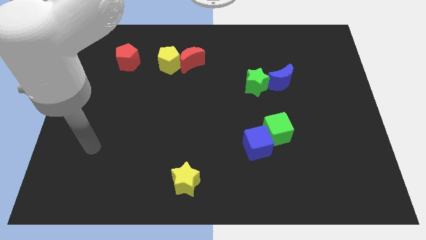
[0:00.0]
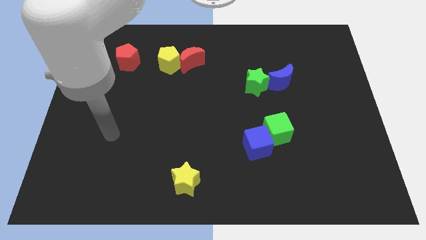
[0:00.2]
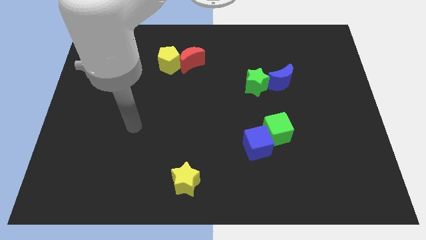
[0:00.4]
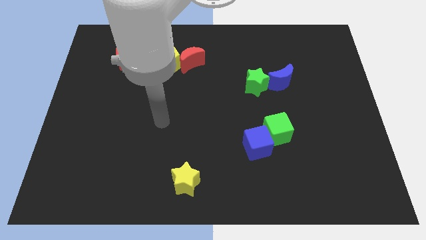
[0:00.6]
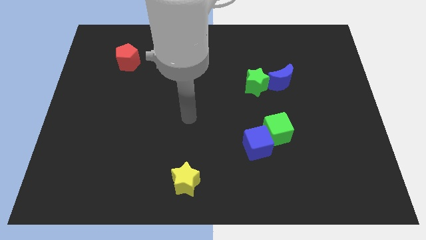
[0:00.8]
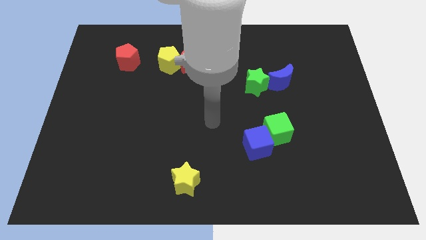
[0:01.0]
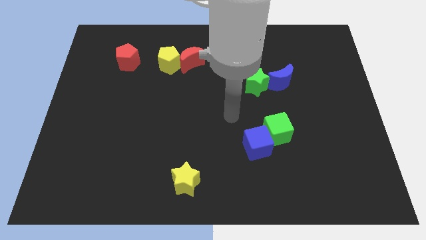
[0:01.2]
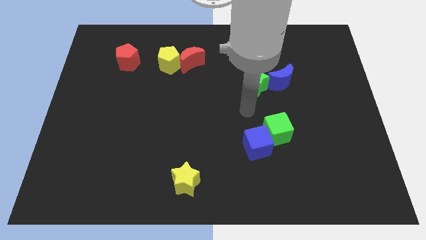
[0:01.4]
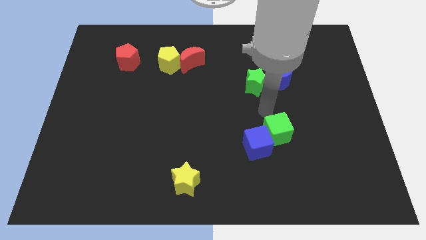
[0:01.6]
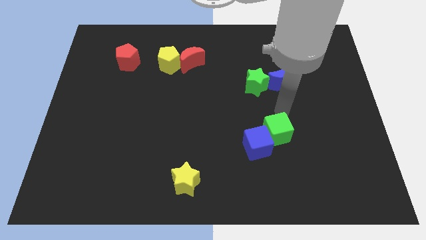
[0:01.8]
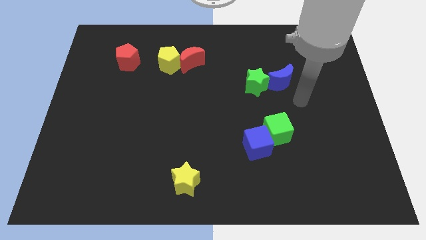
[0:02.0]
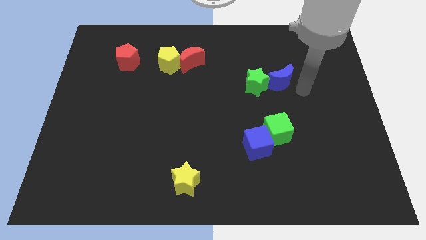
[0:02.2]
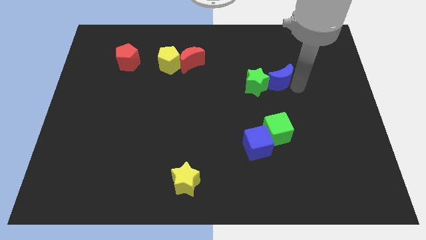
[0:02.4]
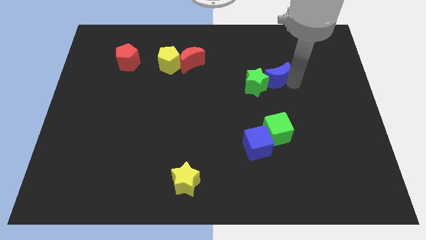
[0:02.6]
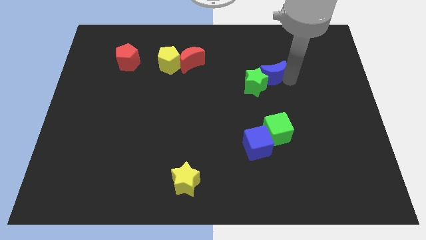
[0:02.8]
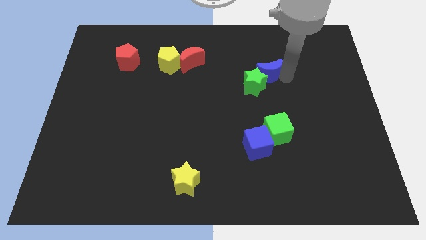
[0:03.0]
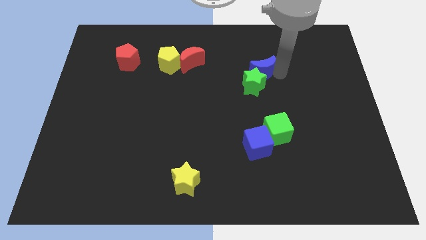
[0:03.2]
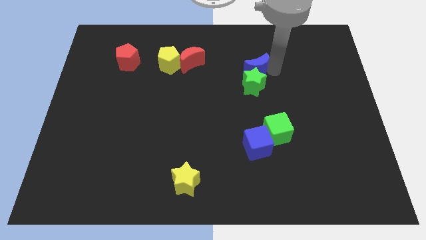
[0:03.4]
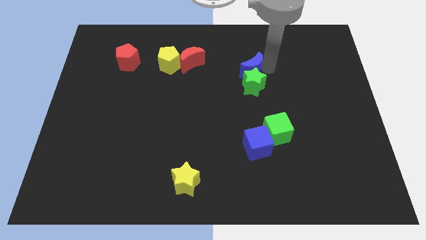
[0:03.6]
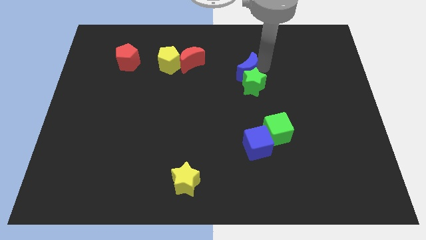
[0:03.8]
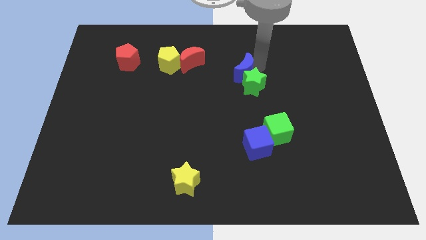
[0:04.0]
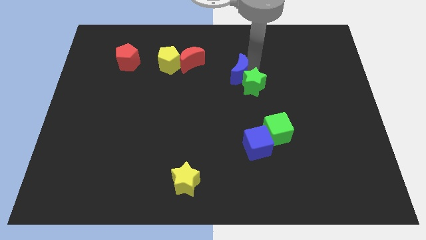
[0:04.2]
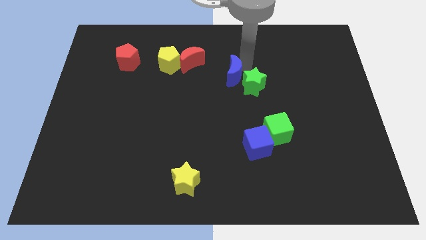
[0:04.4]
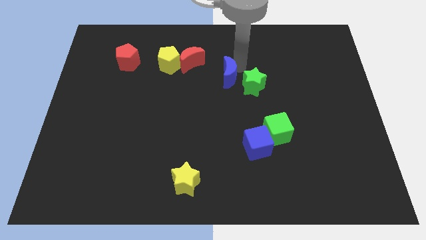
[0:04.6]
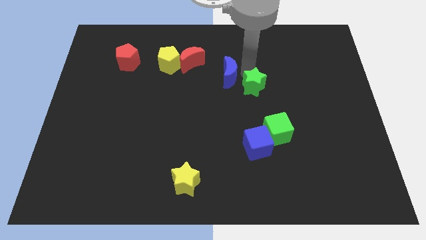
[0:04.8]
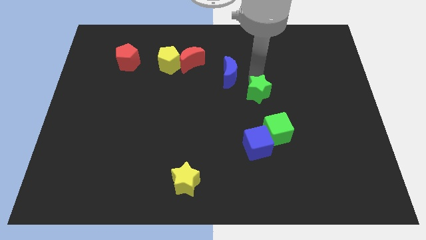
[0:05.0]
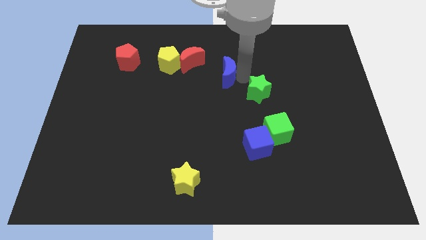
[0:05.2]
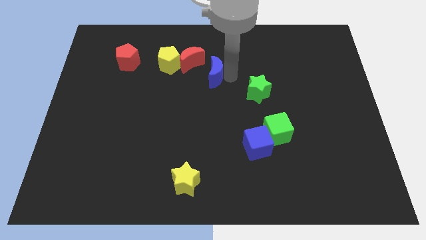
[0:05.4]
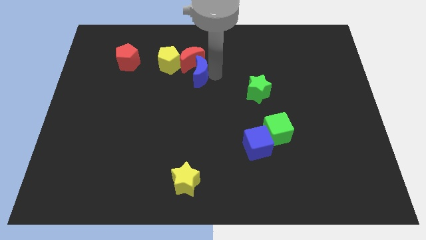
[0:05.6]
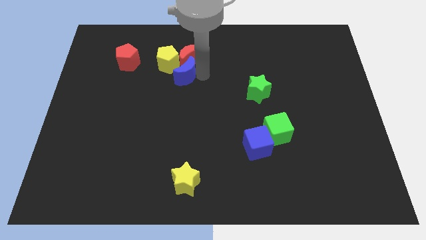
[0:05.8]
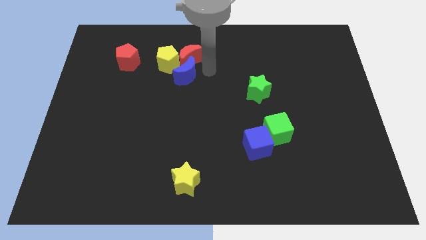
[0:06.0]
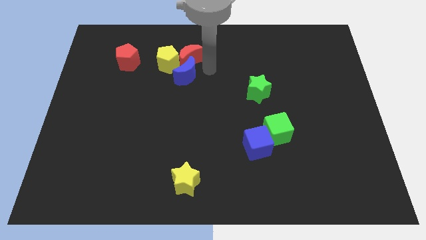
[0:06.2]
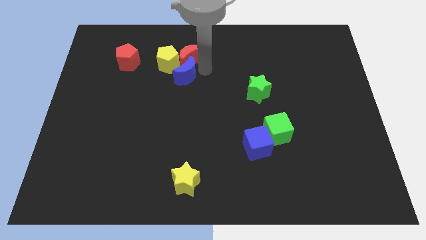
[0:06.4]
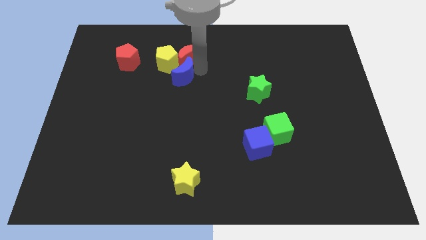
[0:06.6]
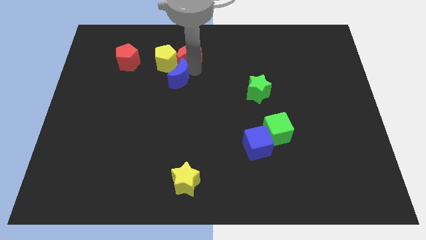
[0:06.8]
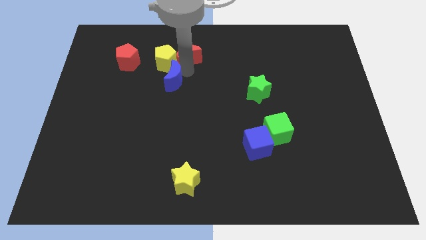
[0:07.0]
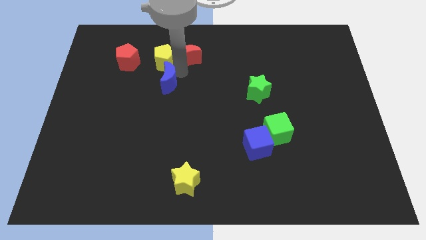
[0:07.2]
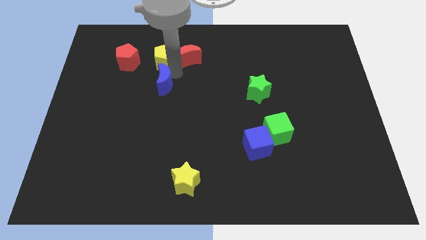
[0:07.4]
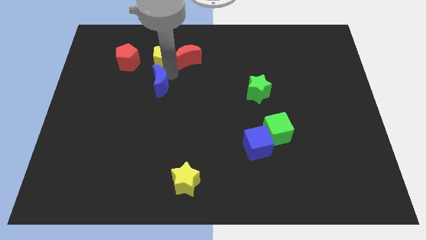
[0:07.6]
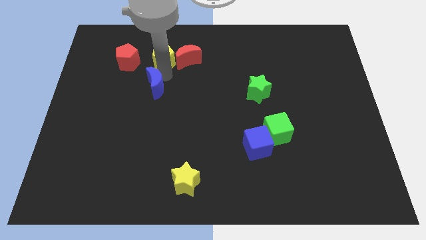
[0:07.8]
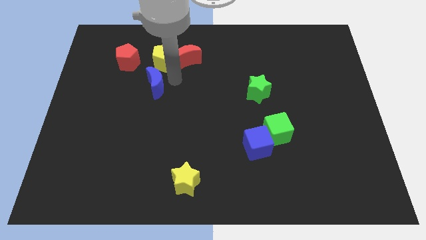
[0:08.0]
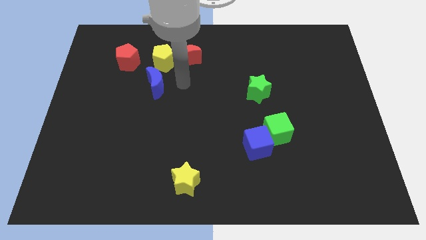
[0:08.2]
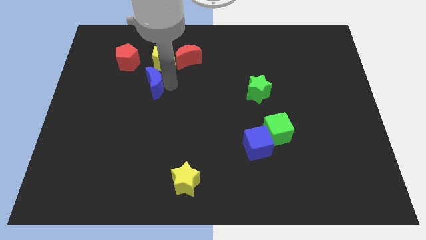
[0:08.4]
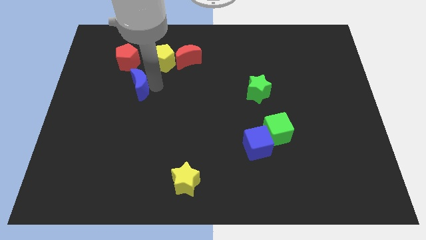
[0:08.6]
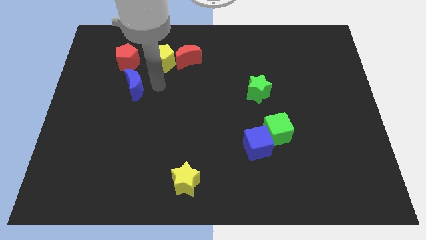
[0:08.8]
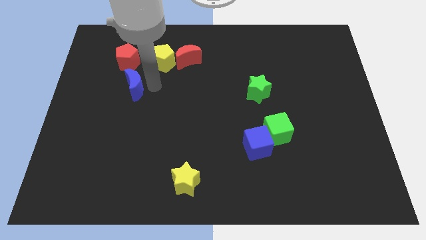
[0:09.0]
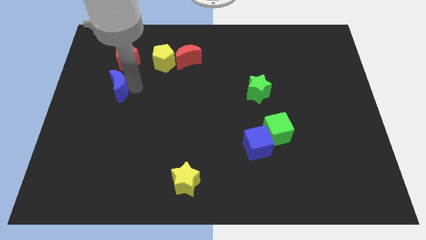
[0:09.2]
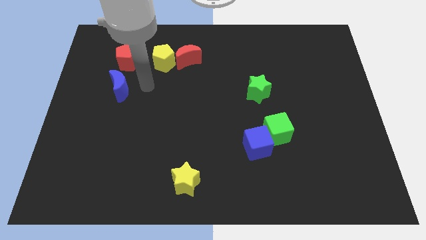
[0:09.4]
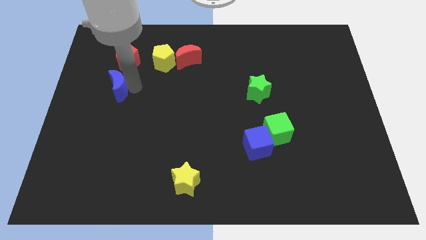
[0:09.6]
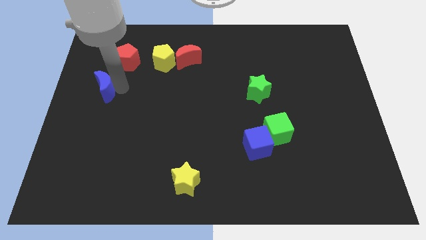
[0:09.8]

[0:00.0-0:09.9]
move the blue moon to the left side

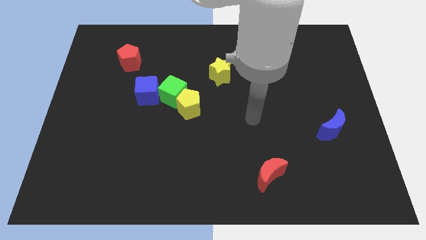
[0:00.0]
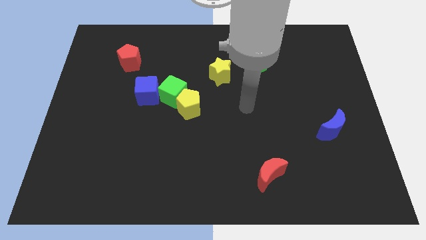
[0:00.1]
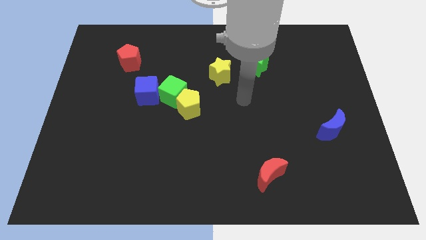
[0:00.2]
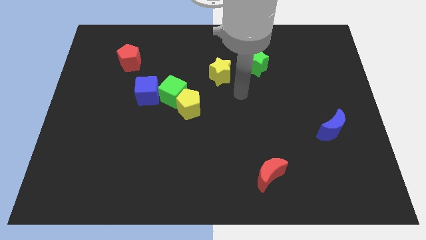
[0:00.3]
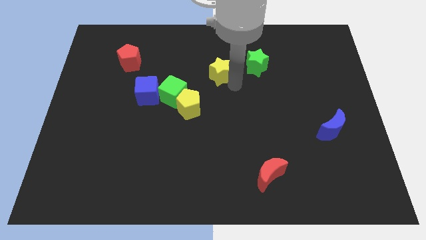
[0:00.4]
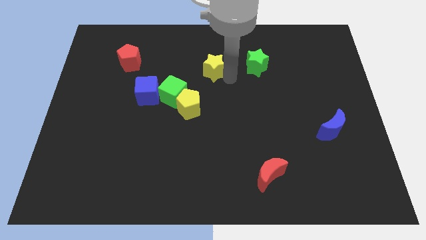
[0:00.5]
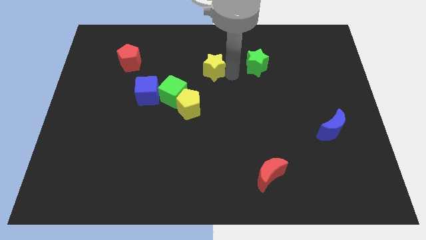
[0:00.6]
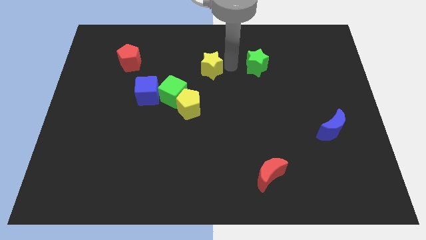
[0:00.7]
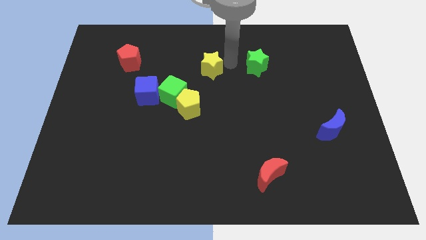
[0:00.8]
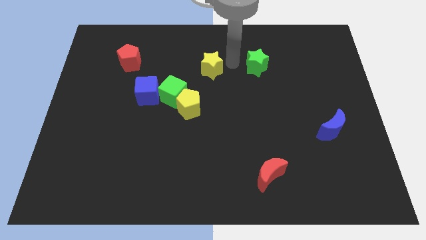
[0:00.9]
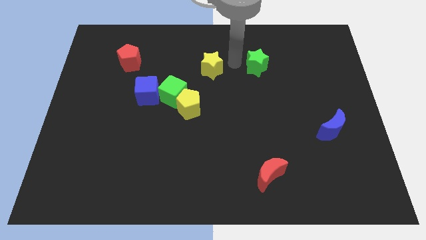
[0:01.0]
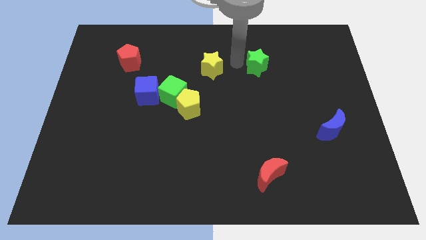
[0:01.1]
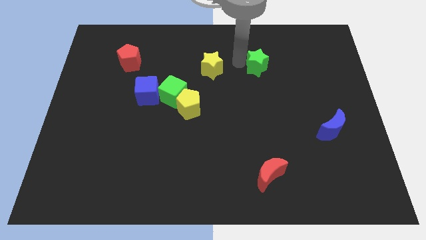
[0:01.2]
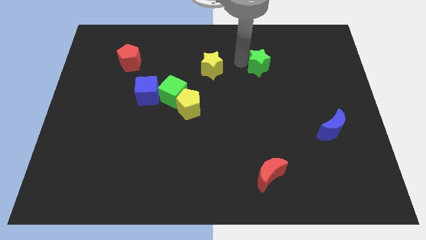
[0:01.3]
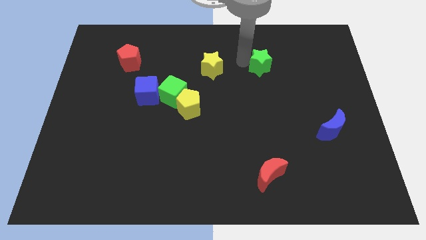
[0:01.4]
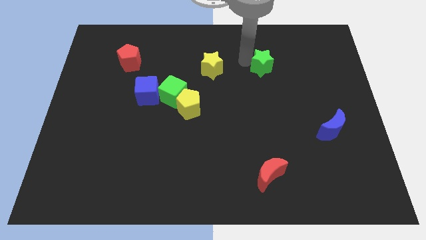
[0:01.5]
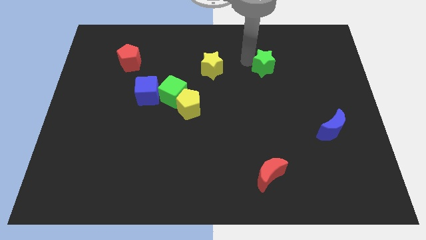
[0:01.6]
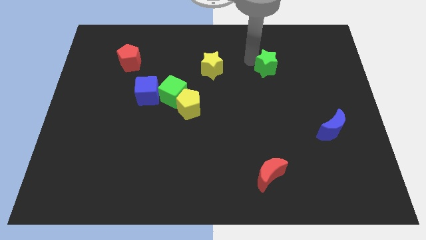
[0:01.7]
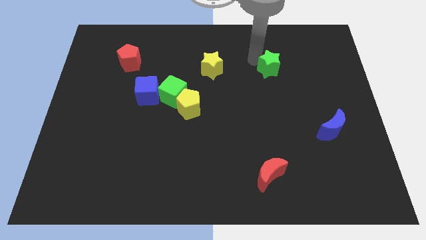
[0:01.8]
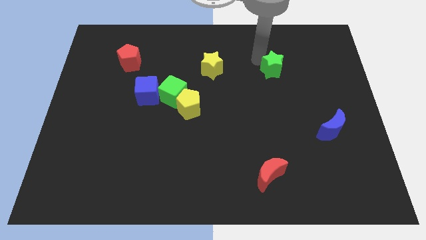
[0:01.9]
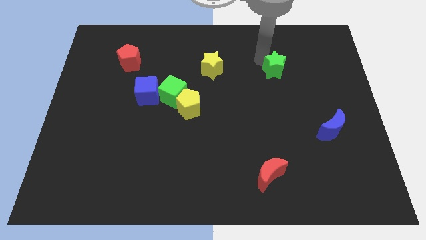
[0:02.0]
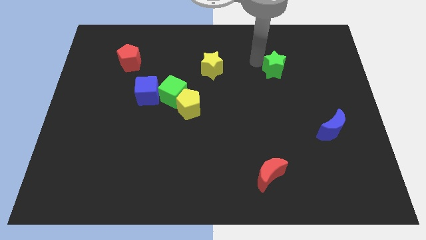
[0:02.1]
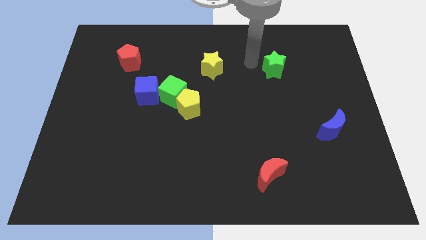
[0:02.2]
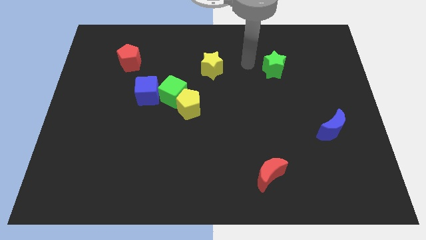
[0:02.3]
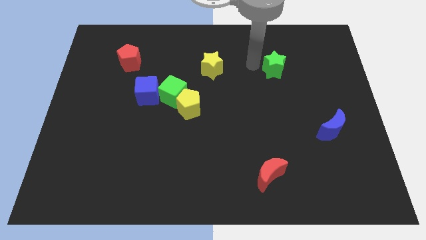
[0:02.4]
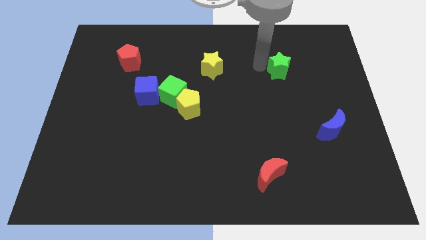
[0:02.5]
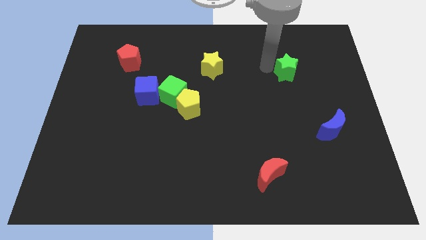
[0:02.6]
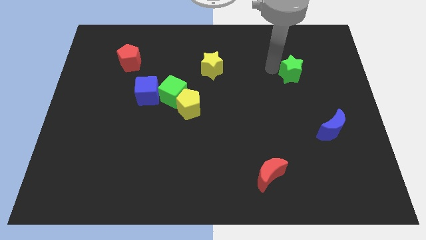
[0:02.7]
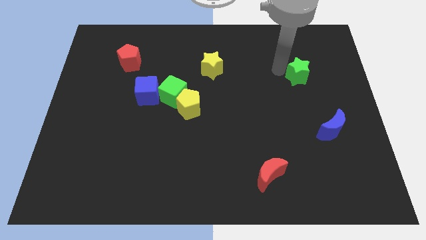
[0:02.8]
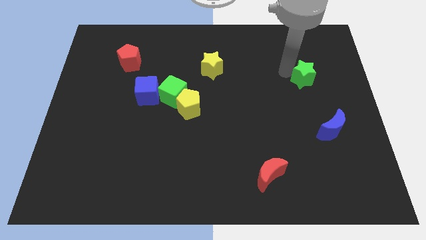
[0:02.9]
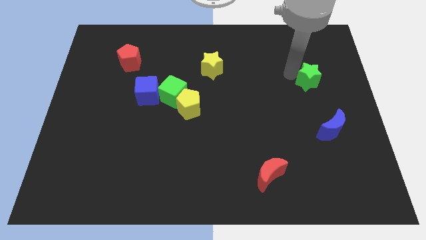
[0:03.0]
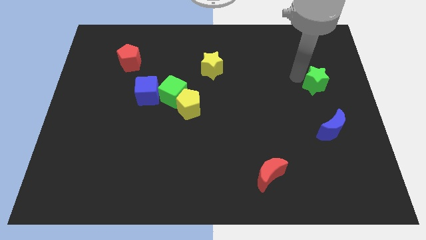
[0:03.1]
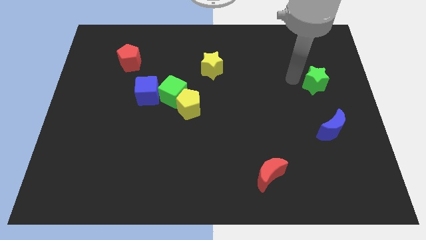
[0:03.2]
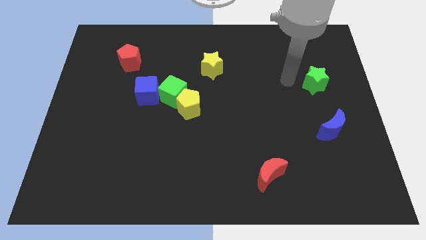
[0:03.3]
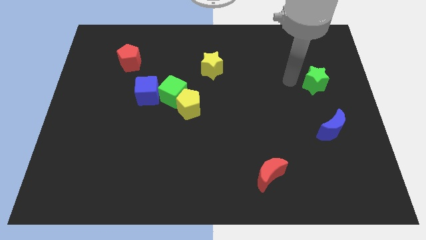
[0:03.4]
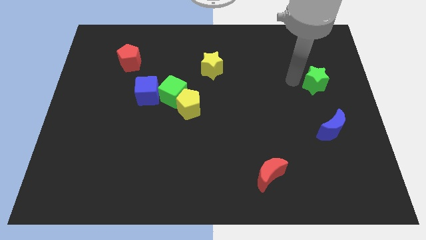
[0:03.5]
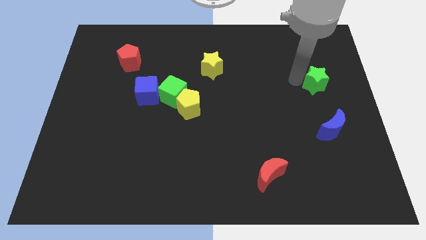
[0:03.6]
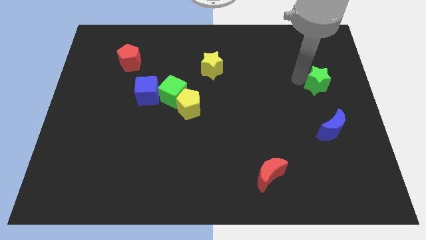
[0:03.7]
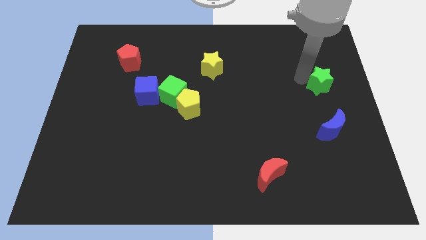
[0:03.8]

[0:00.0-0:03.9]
slide the green star to the center right
